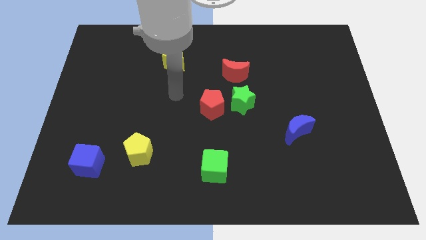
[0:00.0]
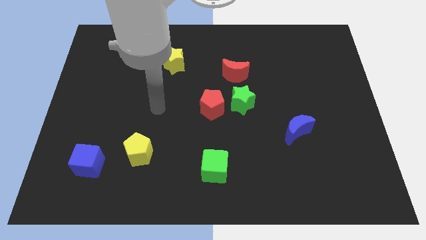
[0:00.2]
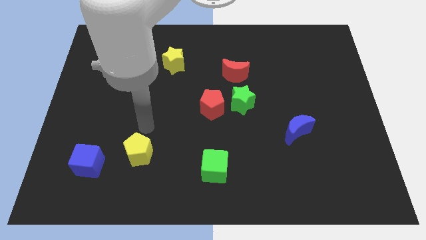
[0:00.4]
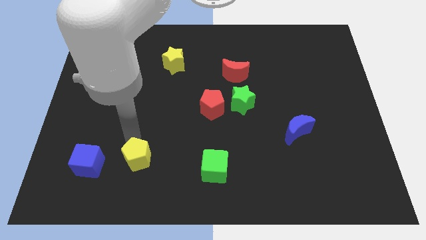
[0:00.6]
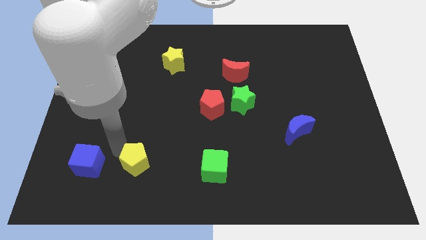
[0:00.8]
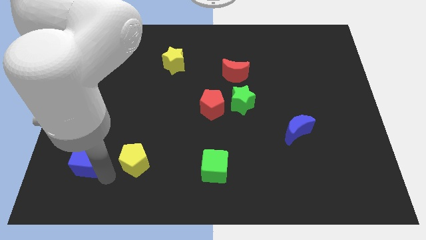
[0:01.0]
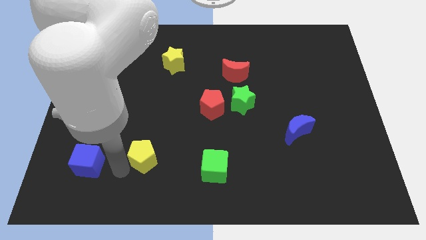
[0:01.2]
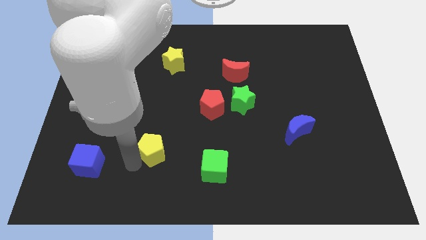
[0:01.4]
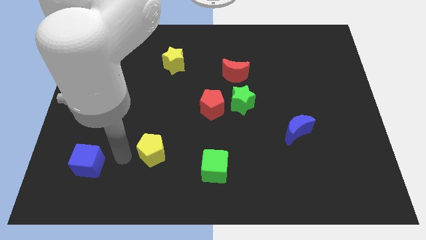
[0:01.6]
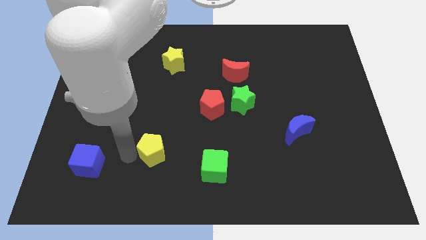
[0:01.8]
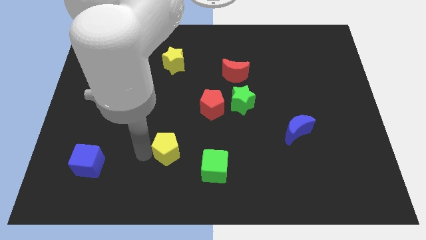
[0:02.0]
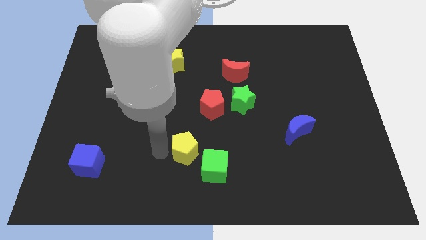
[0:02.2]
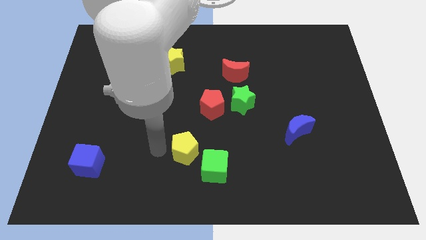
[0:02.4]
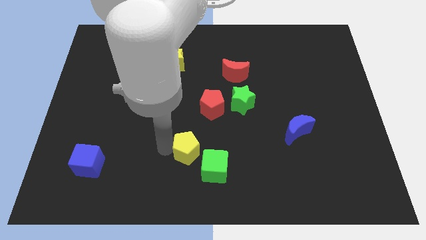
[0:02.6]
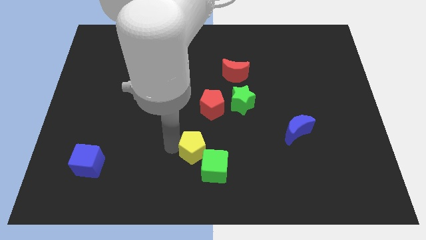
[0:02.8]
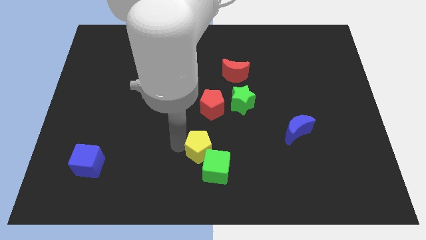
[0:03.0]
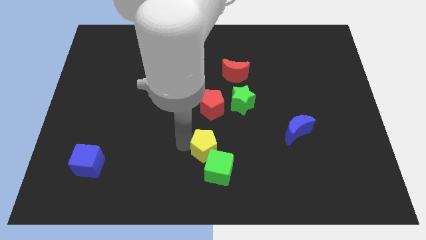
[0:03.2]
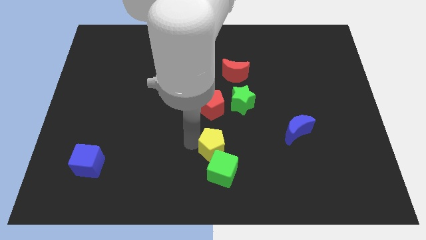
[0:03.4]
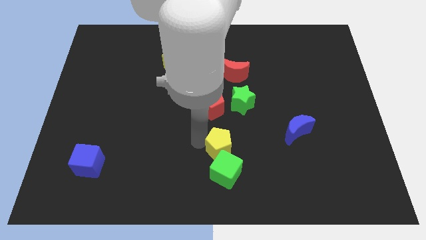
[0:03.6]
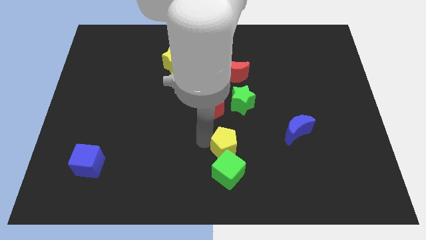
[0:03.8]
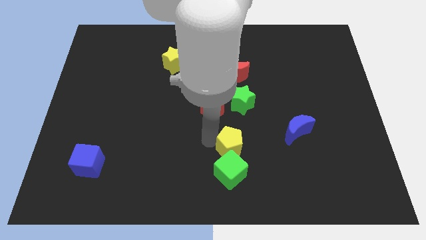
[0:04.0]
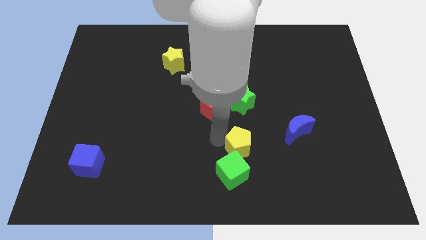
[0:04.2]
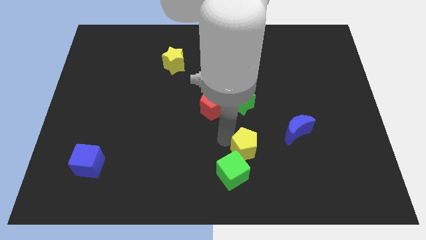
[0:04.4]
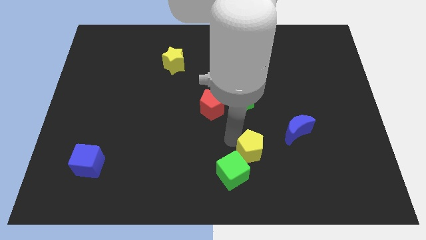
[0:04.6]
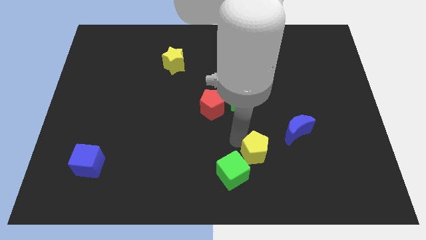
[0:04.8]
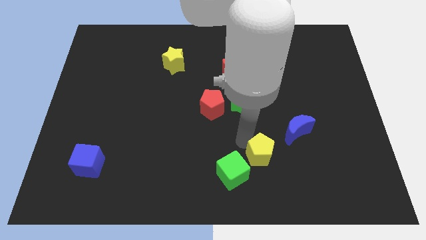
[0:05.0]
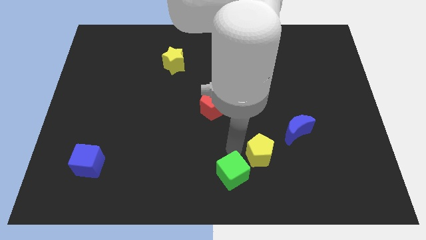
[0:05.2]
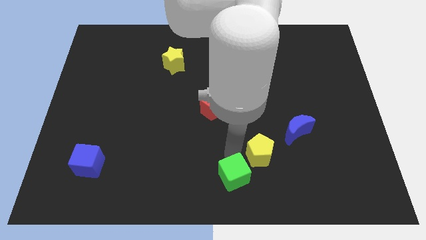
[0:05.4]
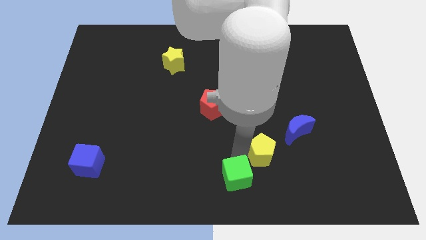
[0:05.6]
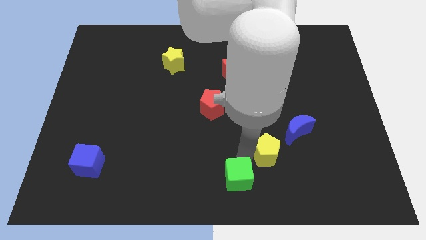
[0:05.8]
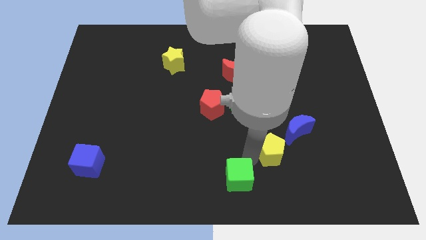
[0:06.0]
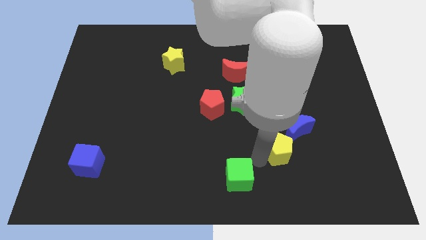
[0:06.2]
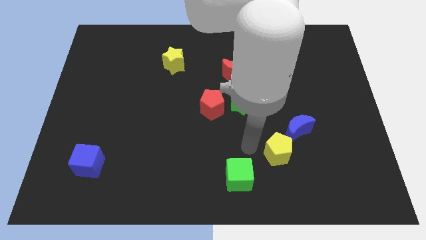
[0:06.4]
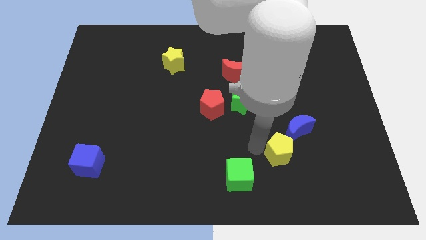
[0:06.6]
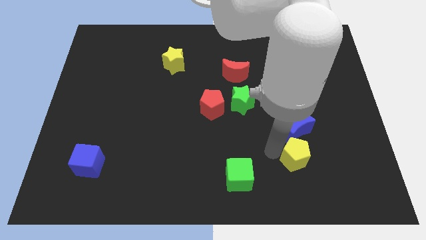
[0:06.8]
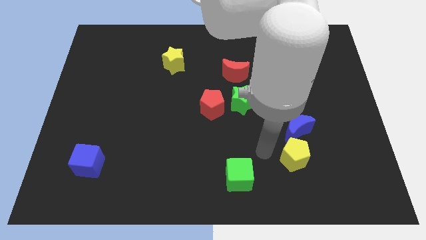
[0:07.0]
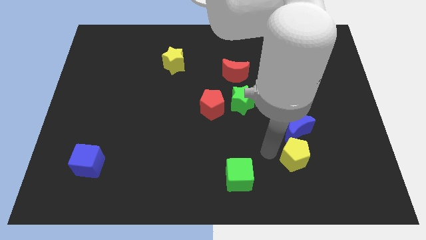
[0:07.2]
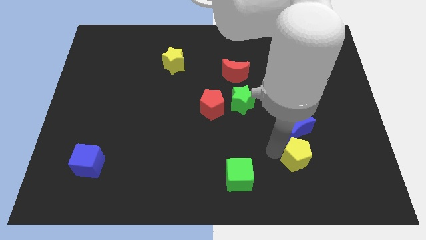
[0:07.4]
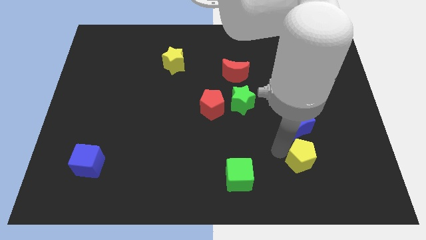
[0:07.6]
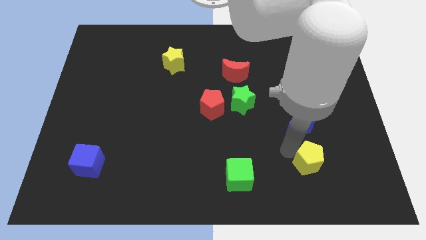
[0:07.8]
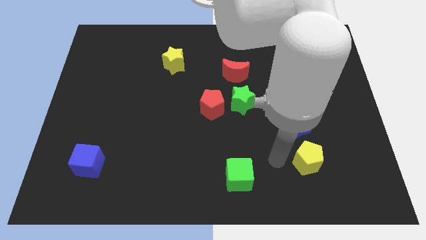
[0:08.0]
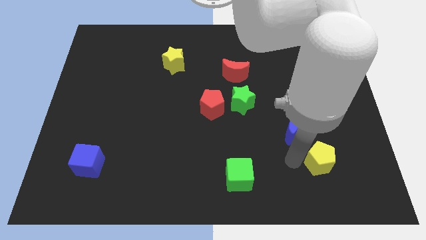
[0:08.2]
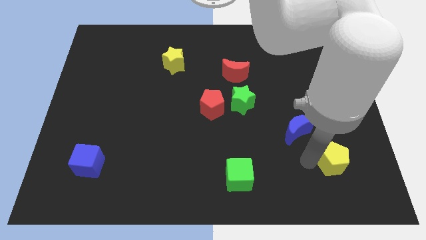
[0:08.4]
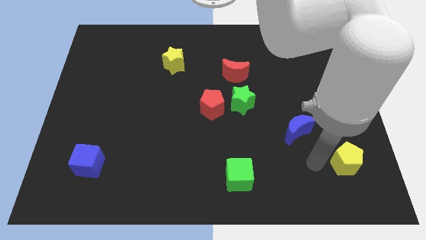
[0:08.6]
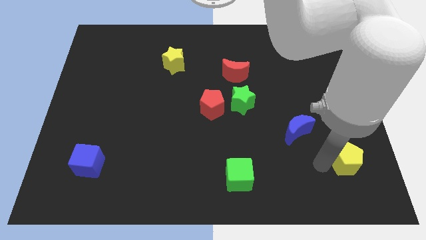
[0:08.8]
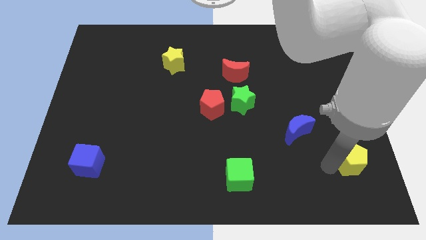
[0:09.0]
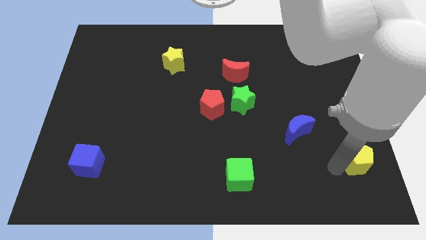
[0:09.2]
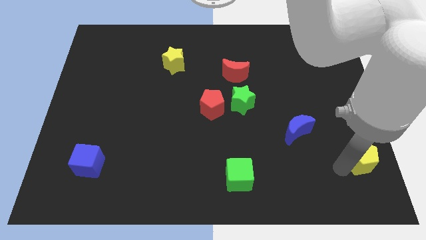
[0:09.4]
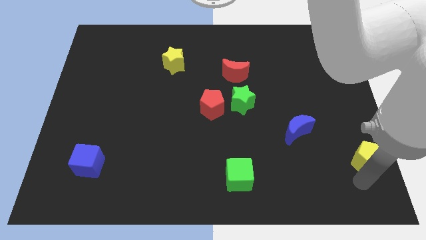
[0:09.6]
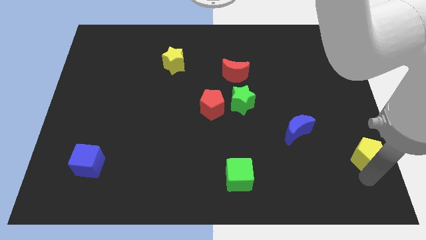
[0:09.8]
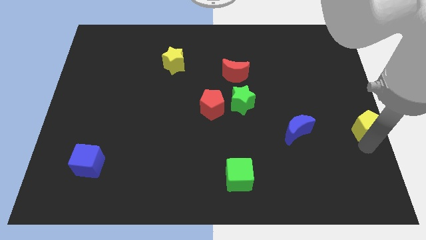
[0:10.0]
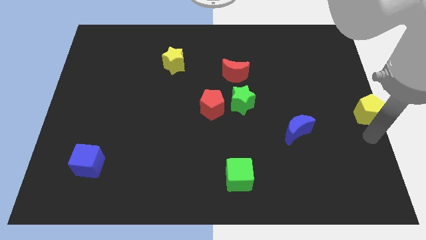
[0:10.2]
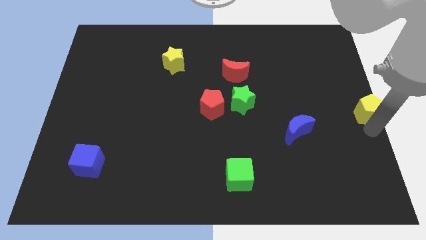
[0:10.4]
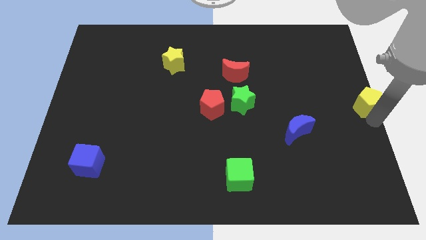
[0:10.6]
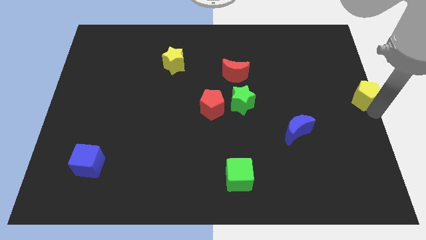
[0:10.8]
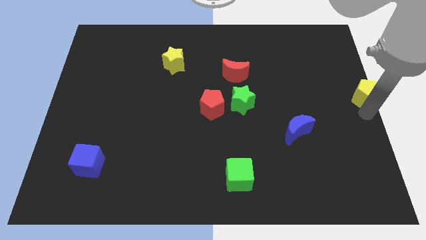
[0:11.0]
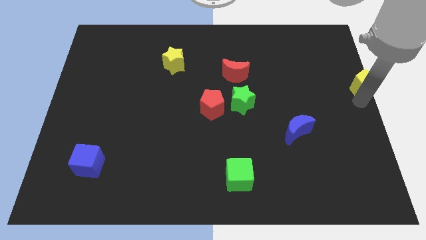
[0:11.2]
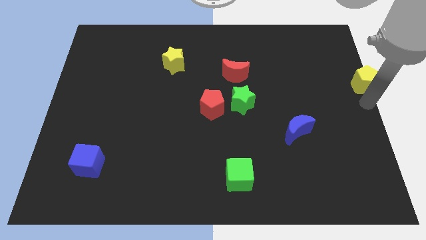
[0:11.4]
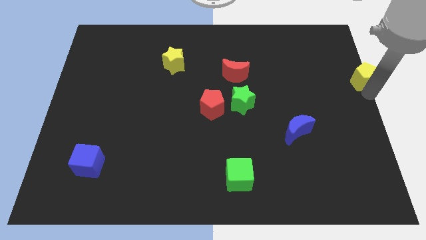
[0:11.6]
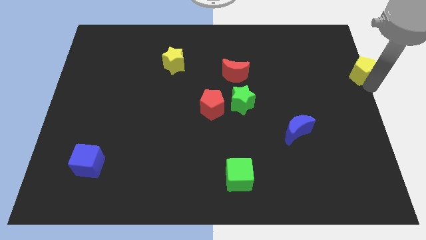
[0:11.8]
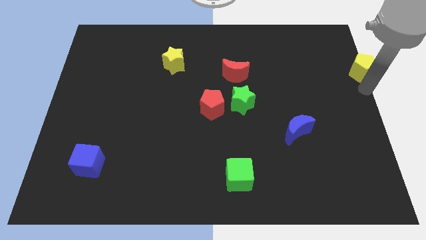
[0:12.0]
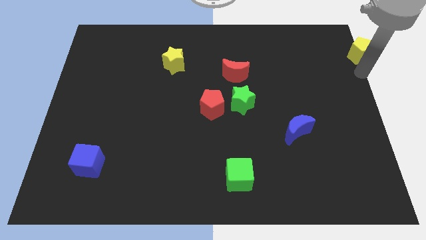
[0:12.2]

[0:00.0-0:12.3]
push the yellow pentagon to the upper right corner
